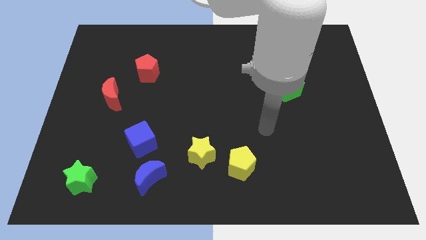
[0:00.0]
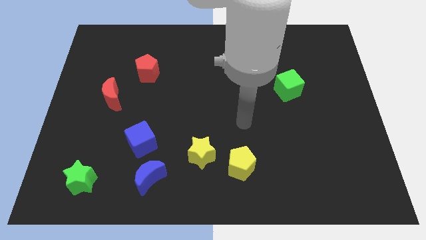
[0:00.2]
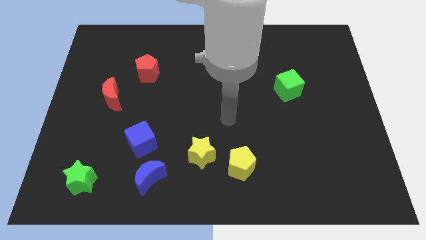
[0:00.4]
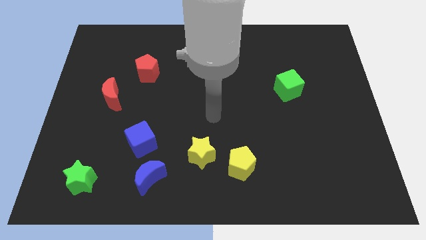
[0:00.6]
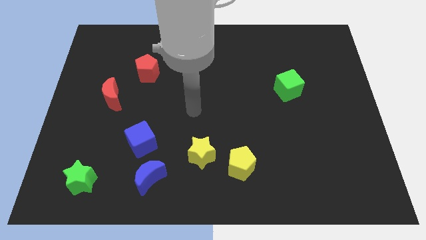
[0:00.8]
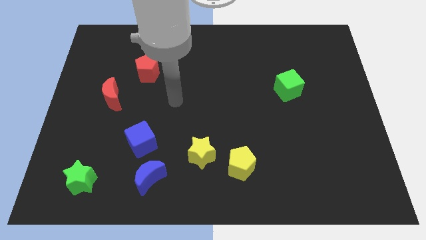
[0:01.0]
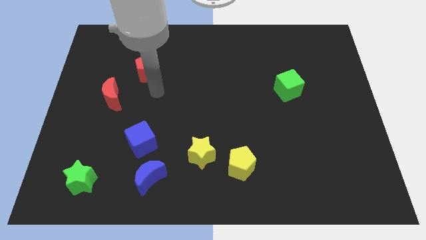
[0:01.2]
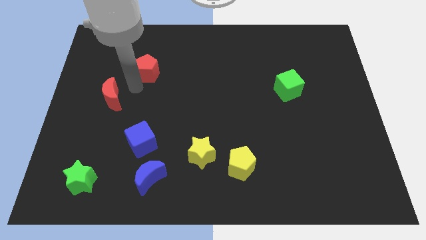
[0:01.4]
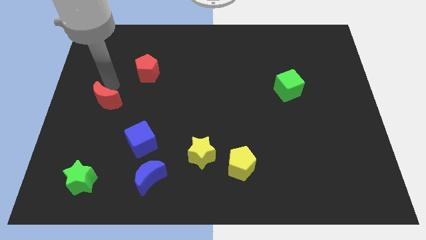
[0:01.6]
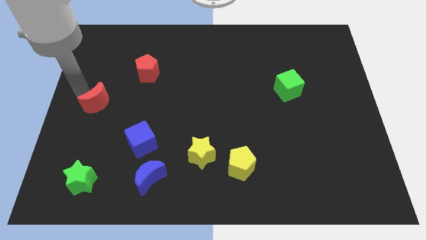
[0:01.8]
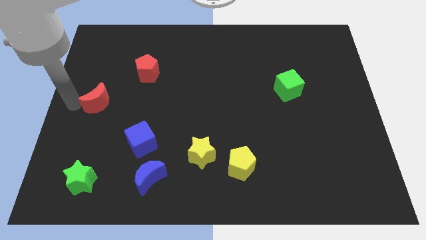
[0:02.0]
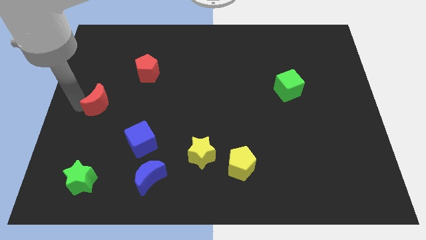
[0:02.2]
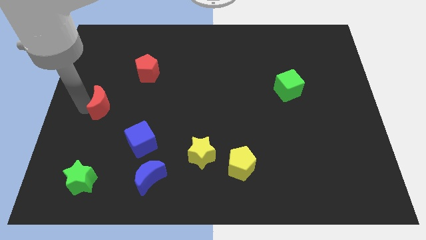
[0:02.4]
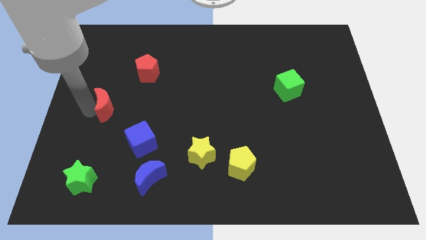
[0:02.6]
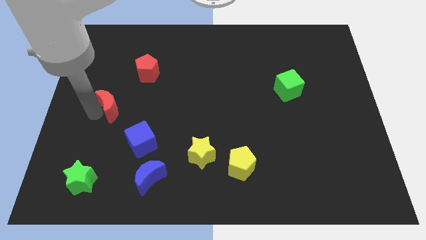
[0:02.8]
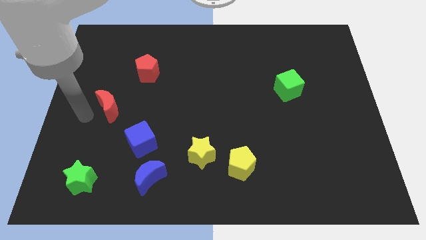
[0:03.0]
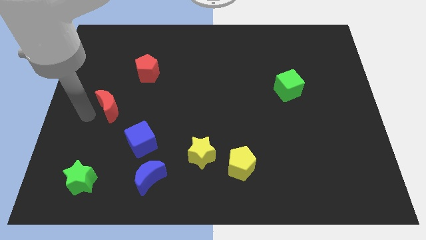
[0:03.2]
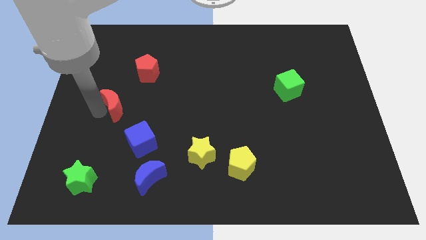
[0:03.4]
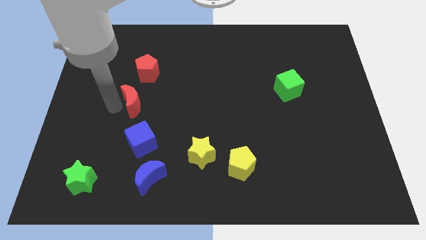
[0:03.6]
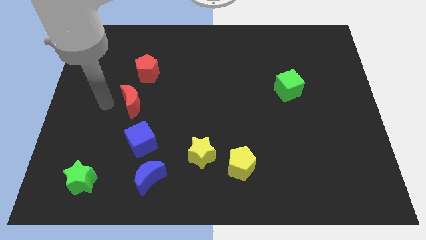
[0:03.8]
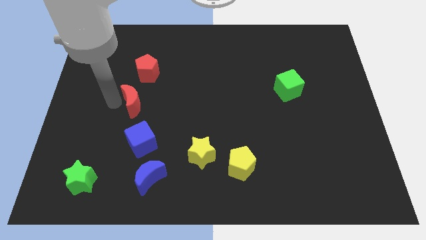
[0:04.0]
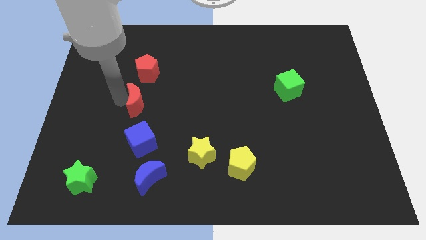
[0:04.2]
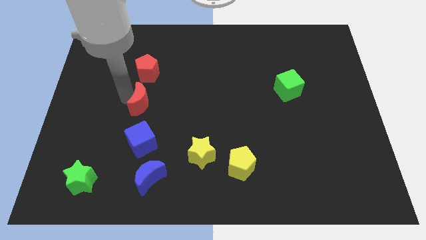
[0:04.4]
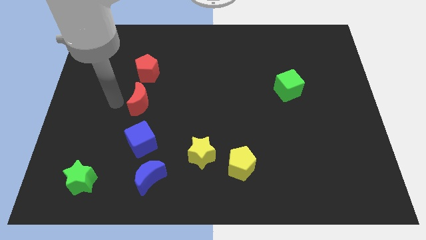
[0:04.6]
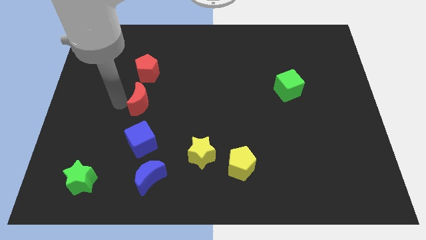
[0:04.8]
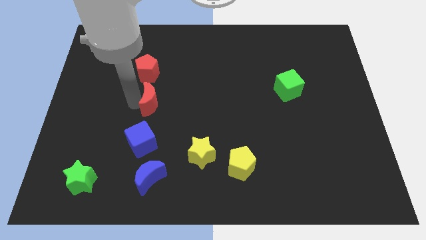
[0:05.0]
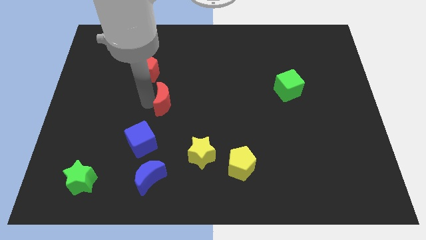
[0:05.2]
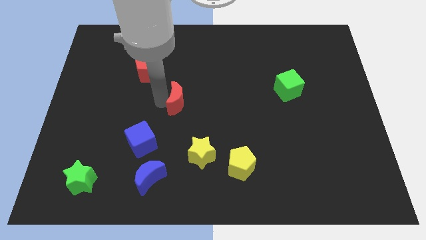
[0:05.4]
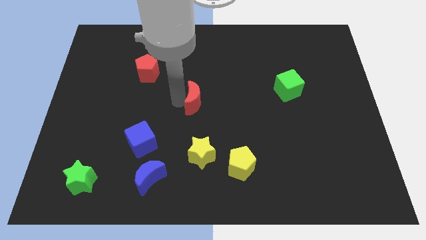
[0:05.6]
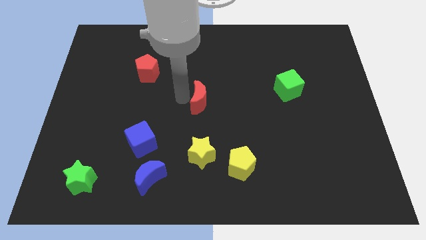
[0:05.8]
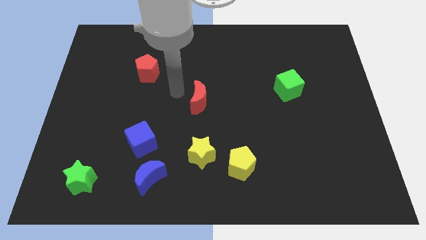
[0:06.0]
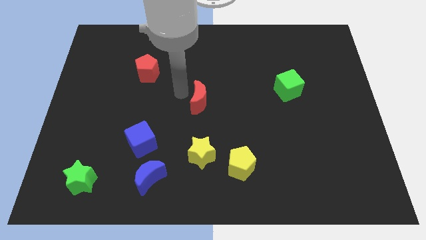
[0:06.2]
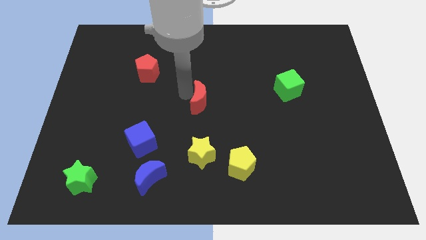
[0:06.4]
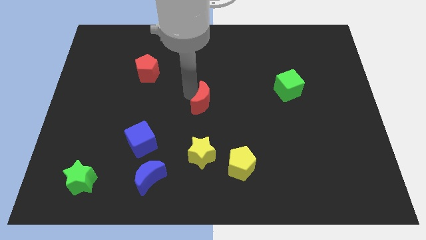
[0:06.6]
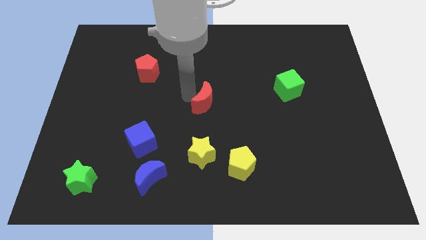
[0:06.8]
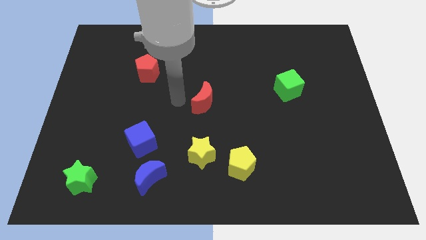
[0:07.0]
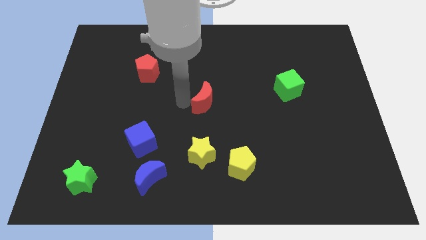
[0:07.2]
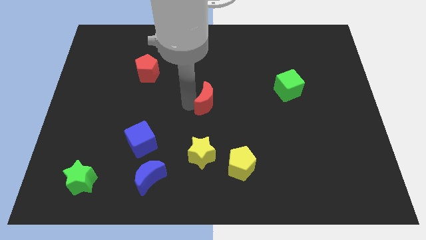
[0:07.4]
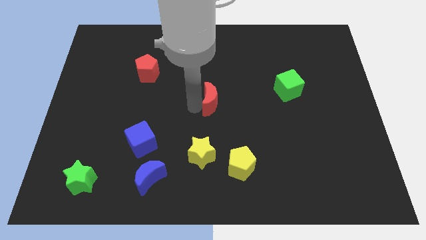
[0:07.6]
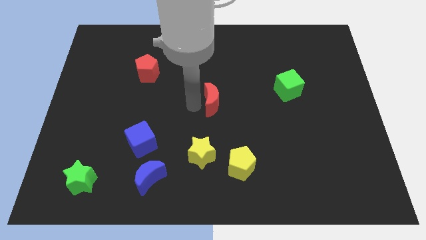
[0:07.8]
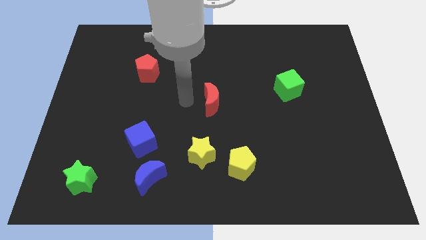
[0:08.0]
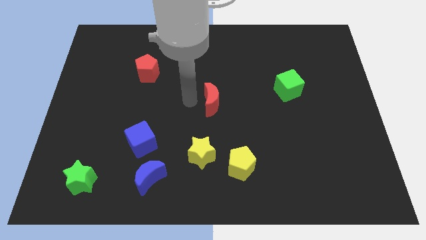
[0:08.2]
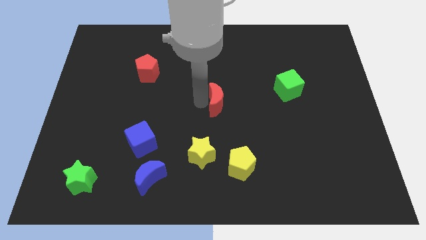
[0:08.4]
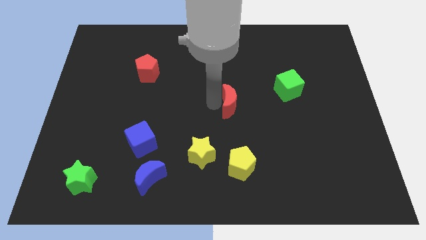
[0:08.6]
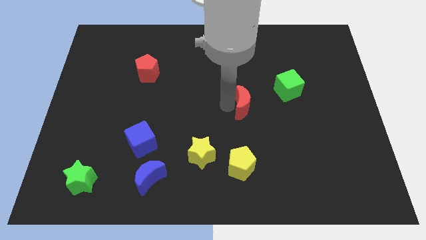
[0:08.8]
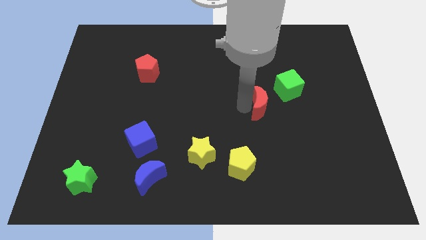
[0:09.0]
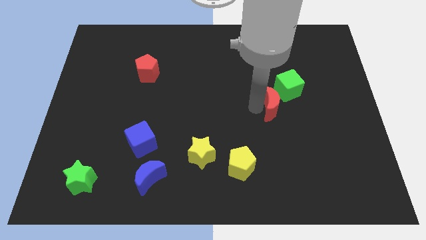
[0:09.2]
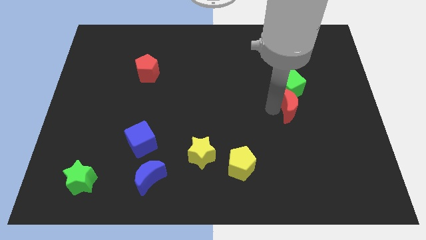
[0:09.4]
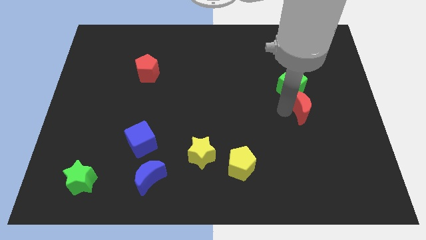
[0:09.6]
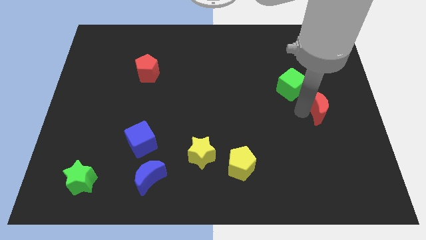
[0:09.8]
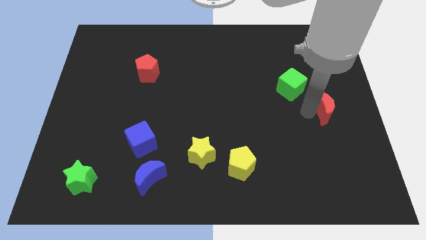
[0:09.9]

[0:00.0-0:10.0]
push the red moon to the right side of the board

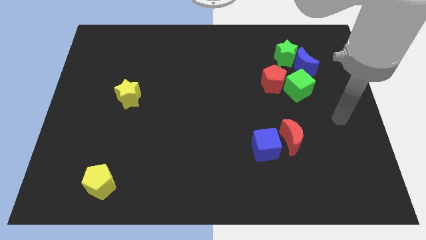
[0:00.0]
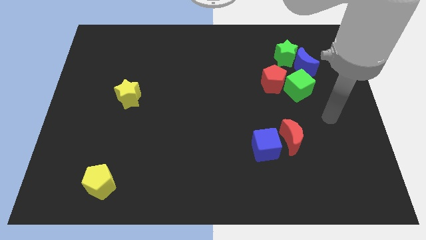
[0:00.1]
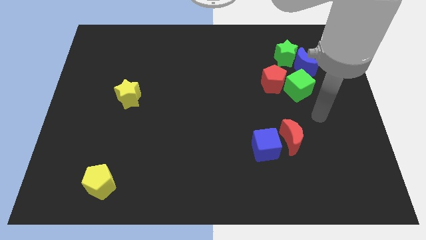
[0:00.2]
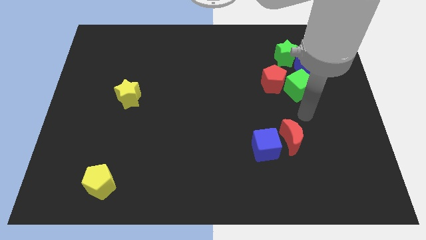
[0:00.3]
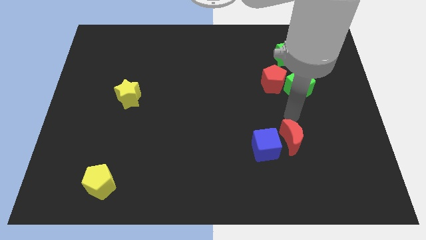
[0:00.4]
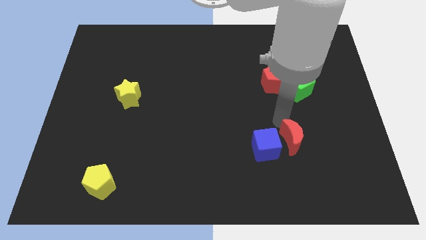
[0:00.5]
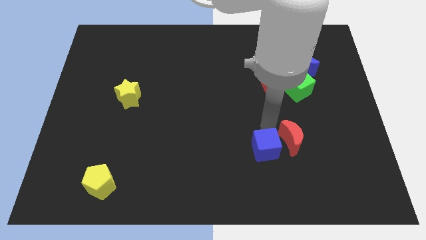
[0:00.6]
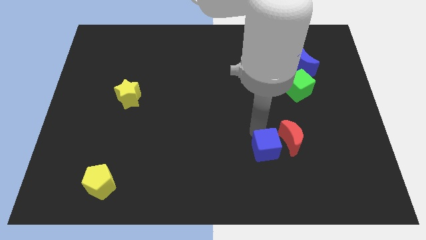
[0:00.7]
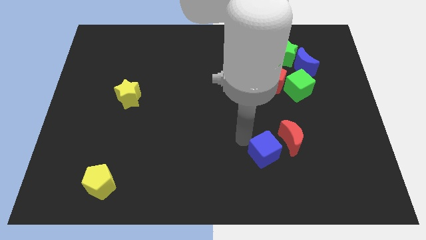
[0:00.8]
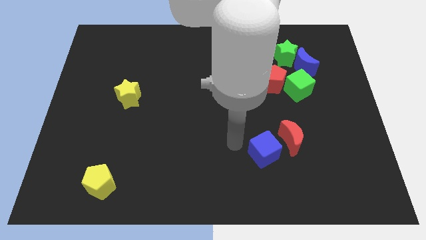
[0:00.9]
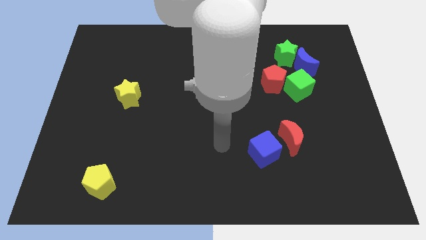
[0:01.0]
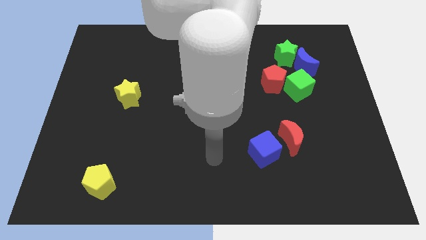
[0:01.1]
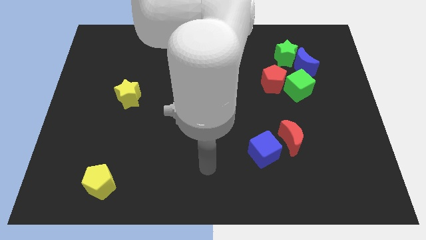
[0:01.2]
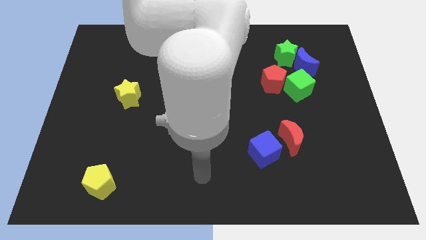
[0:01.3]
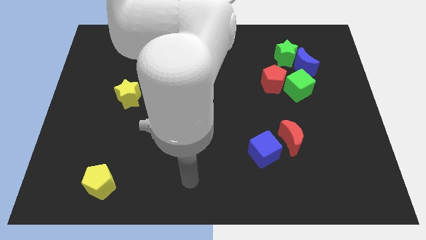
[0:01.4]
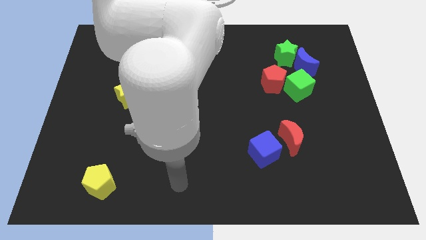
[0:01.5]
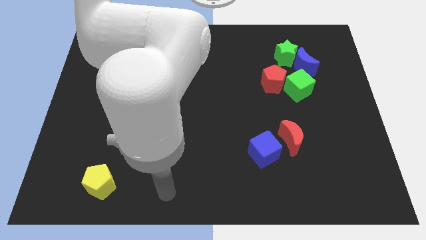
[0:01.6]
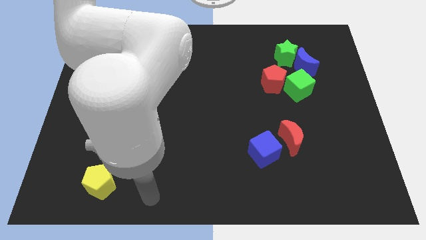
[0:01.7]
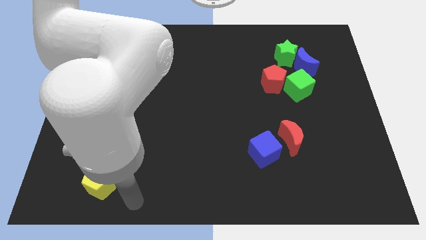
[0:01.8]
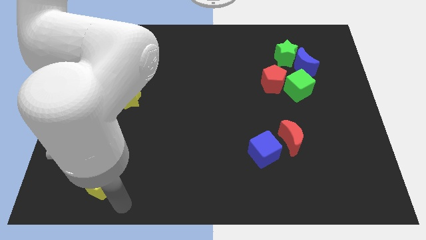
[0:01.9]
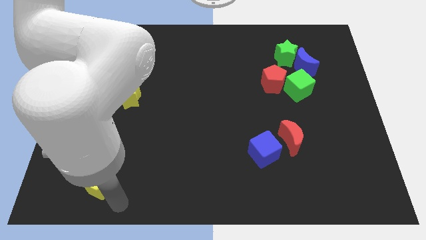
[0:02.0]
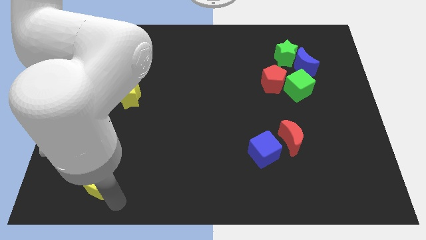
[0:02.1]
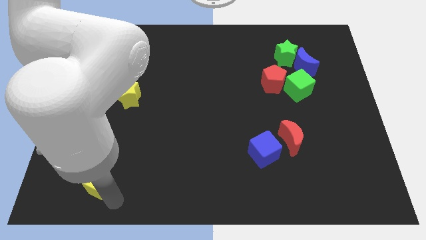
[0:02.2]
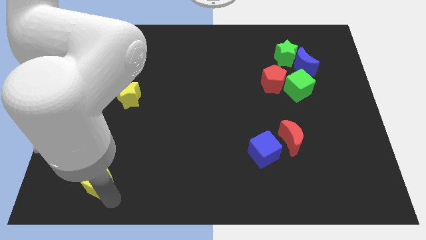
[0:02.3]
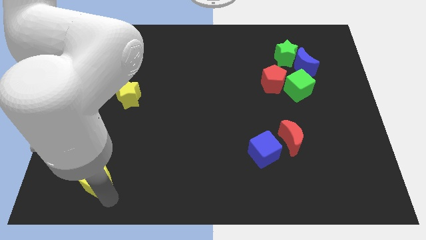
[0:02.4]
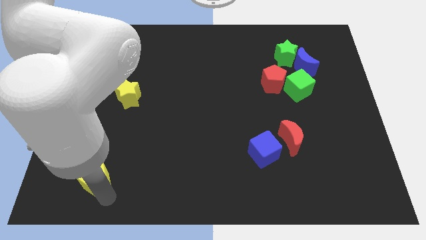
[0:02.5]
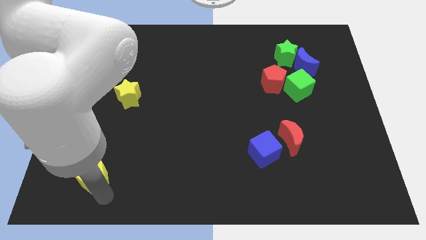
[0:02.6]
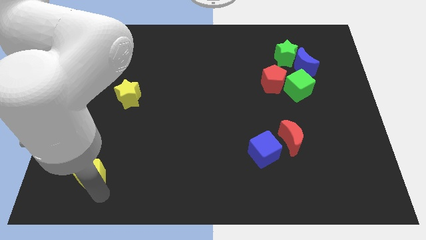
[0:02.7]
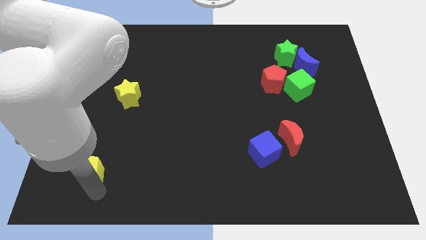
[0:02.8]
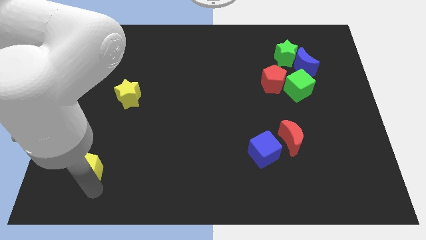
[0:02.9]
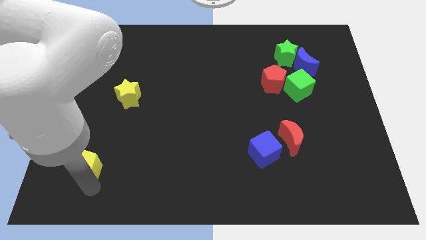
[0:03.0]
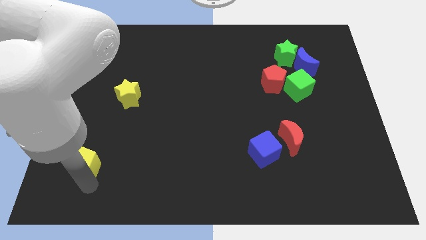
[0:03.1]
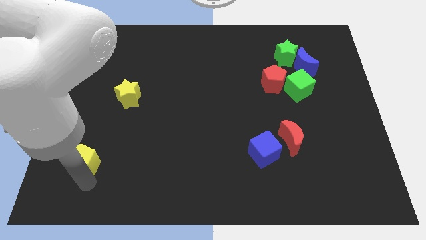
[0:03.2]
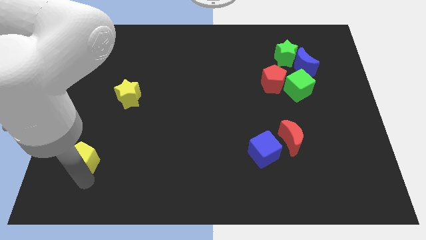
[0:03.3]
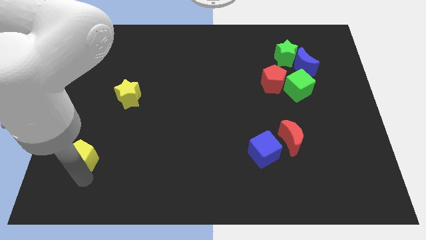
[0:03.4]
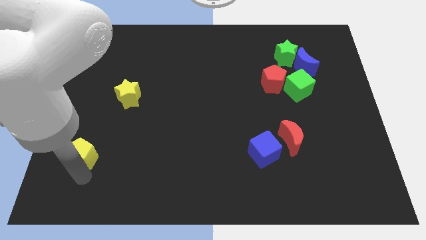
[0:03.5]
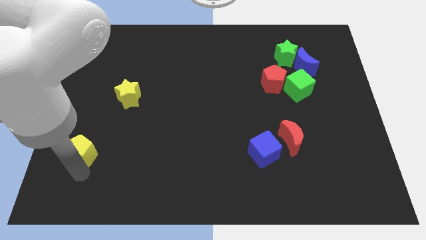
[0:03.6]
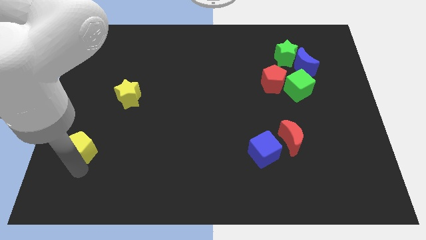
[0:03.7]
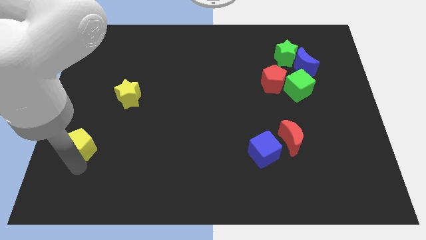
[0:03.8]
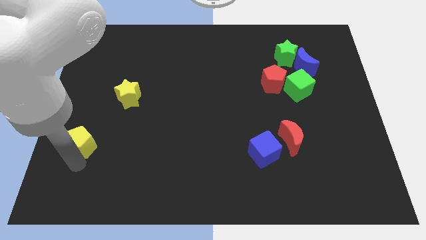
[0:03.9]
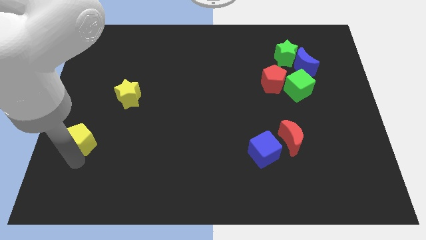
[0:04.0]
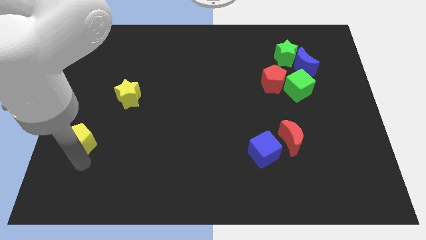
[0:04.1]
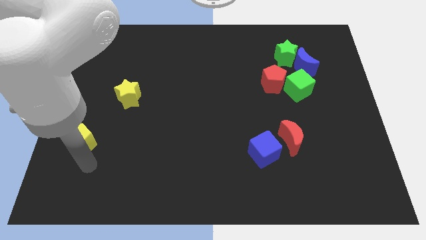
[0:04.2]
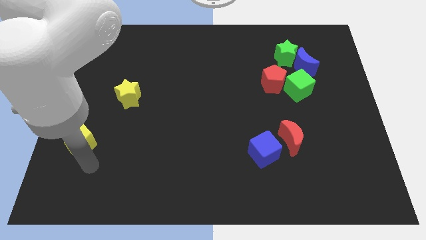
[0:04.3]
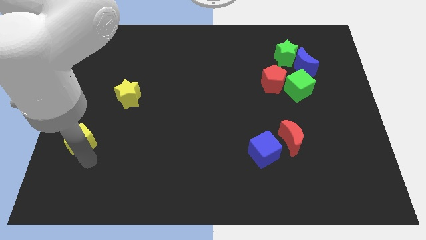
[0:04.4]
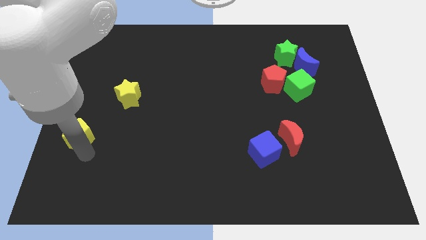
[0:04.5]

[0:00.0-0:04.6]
push the yellow pentagon to the center left
